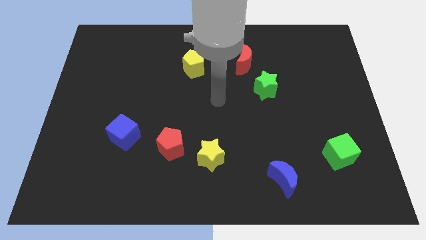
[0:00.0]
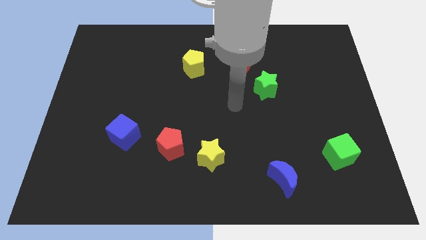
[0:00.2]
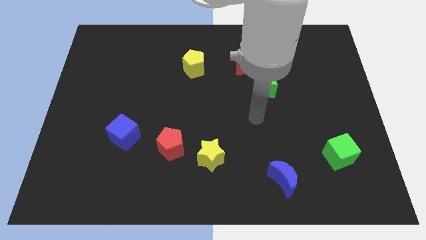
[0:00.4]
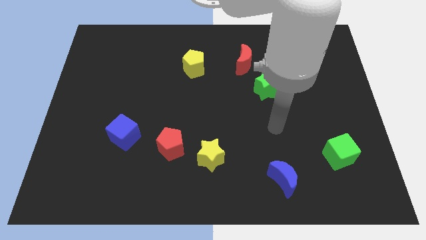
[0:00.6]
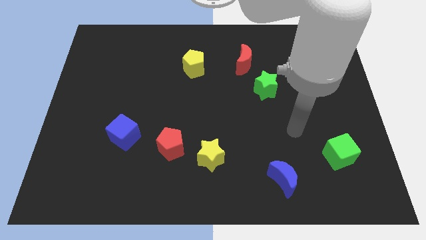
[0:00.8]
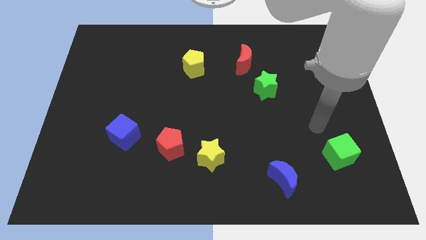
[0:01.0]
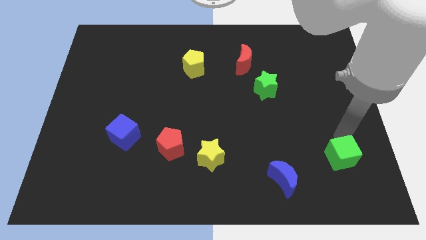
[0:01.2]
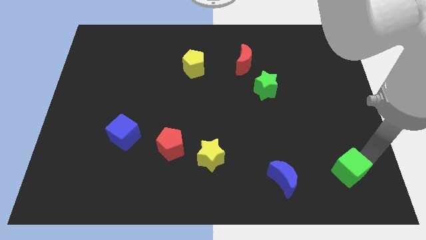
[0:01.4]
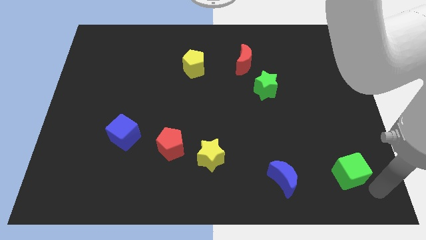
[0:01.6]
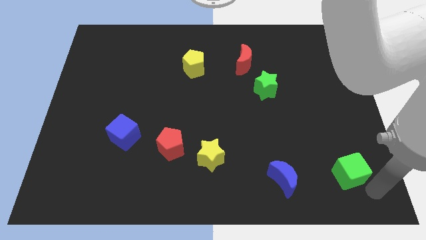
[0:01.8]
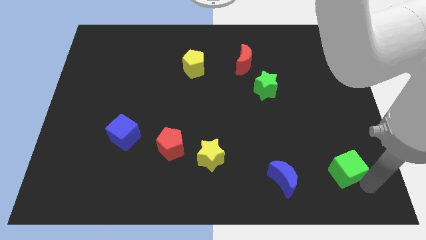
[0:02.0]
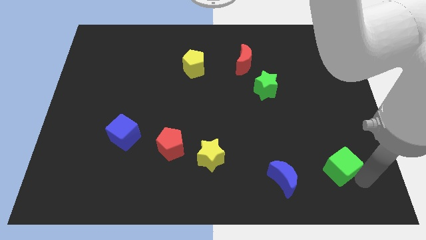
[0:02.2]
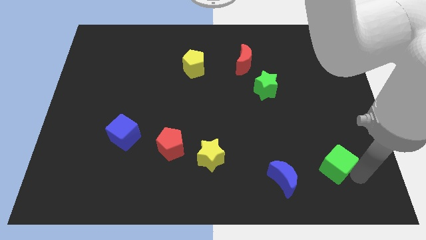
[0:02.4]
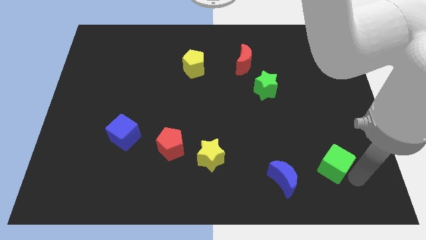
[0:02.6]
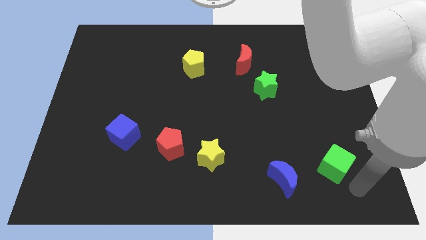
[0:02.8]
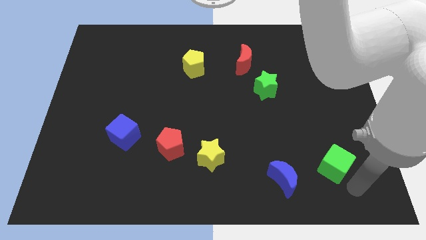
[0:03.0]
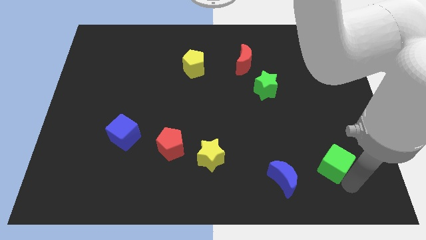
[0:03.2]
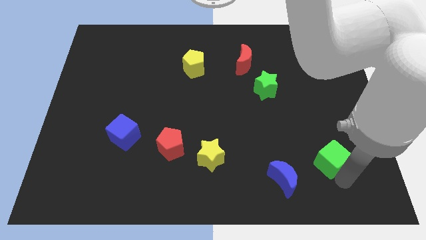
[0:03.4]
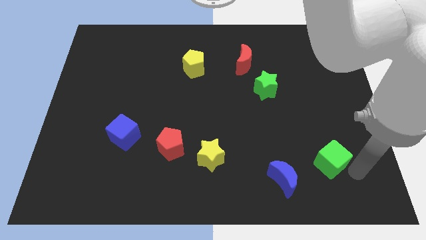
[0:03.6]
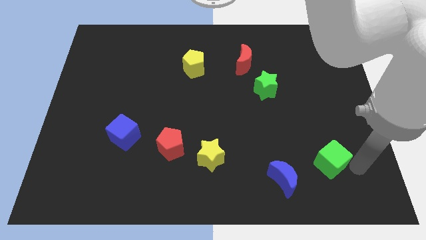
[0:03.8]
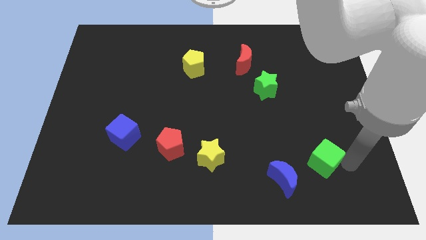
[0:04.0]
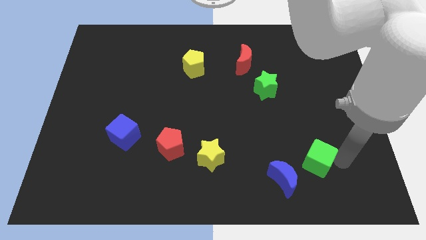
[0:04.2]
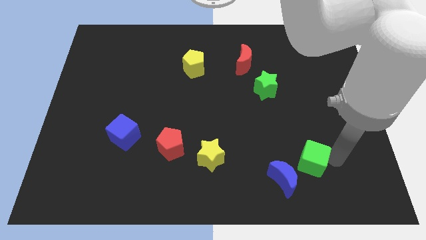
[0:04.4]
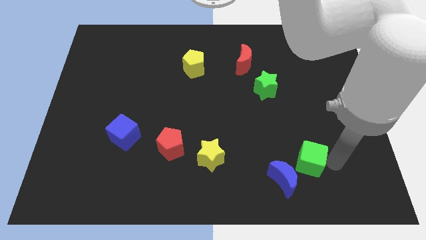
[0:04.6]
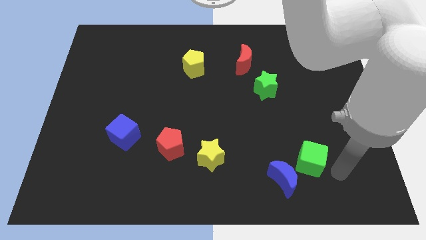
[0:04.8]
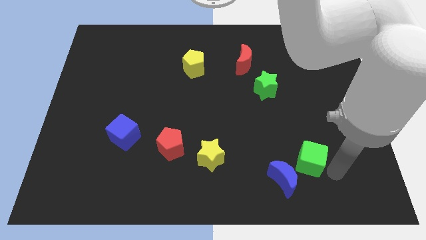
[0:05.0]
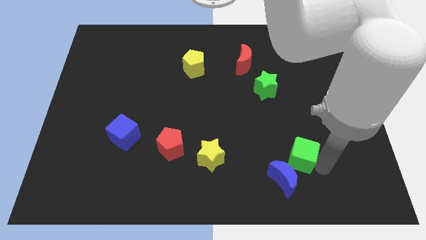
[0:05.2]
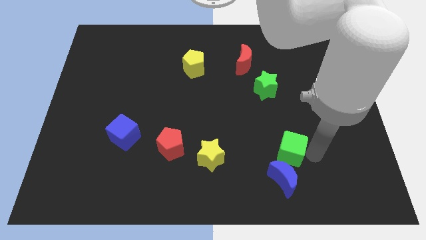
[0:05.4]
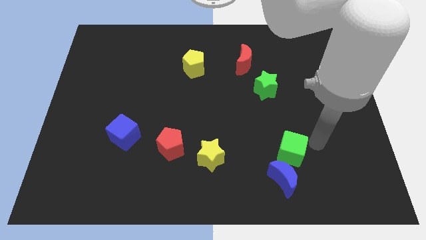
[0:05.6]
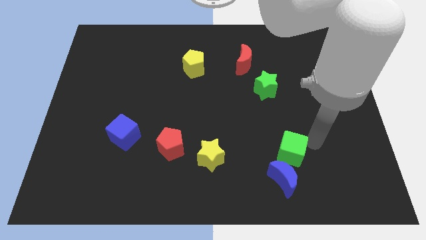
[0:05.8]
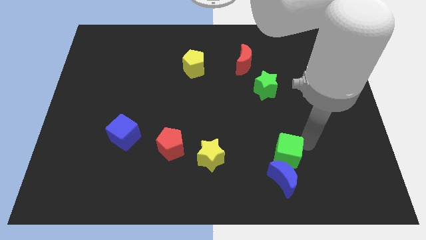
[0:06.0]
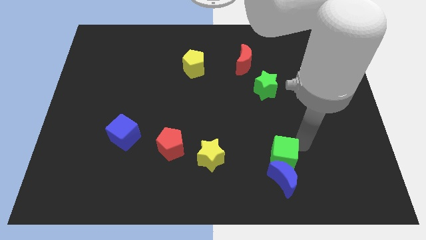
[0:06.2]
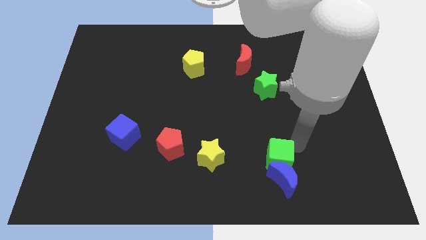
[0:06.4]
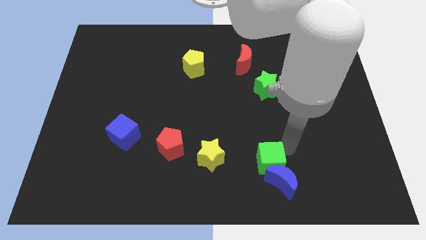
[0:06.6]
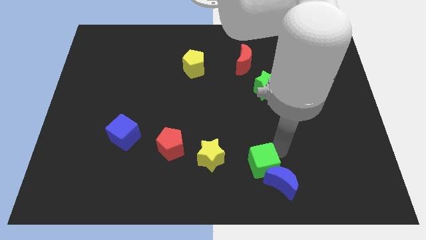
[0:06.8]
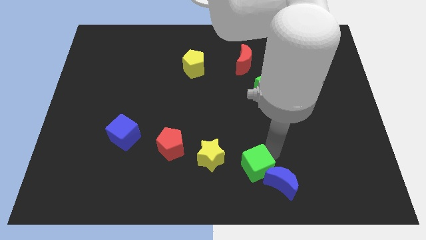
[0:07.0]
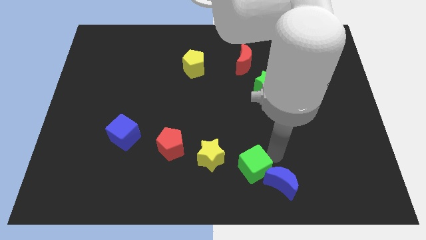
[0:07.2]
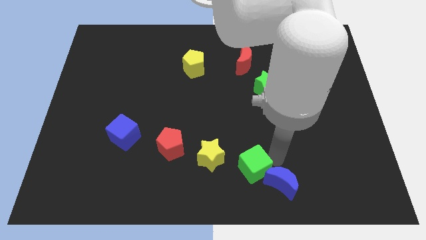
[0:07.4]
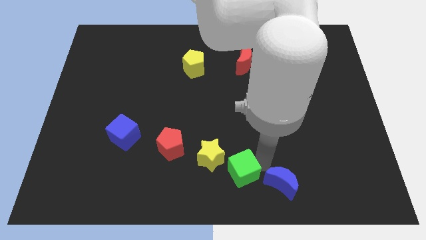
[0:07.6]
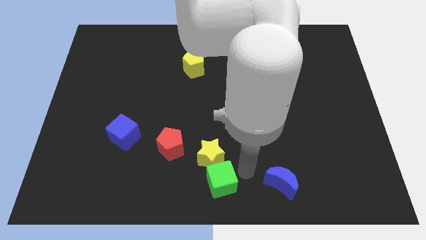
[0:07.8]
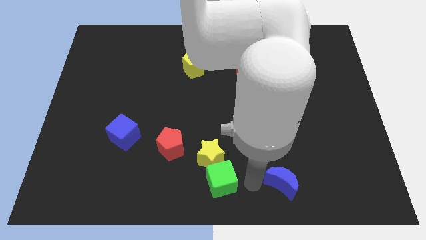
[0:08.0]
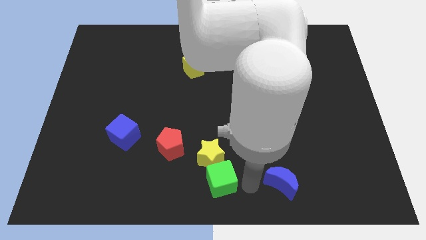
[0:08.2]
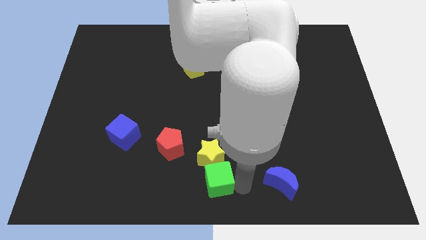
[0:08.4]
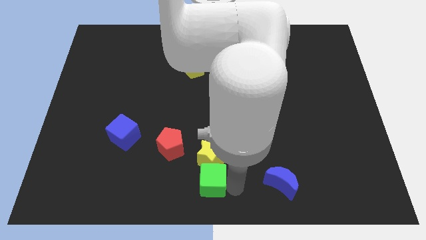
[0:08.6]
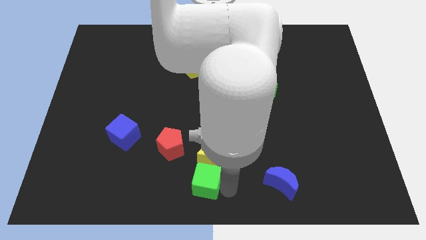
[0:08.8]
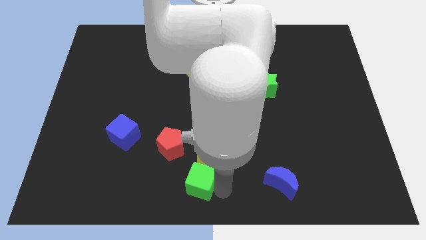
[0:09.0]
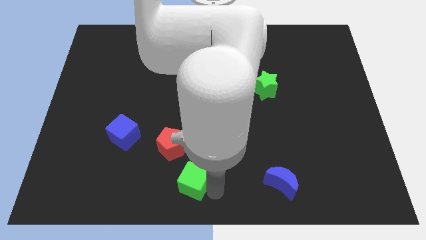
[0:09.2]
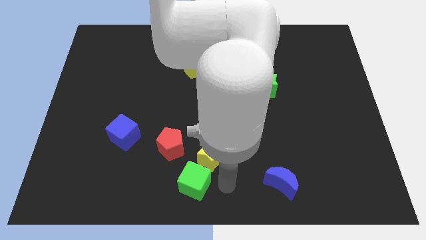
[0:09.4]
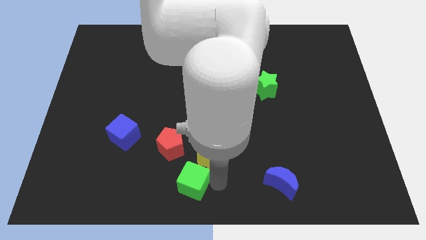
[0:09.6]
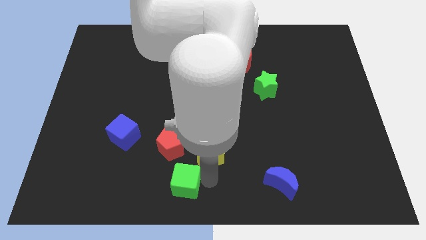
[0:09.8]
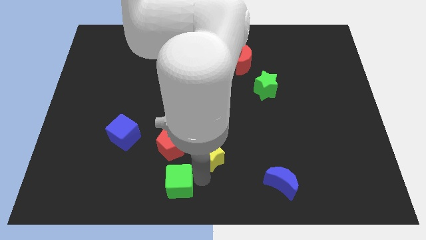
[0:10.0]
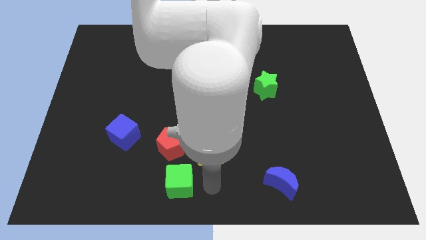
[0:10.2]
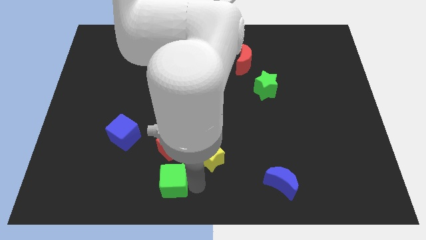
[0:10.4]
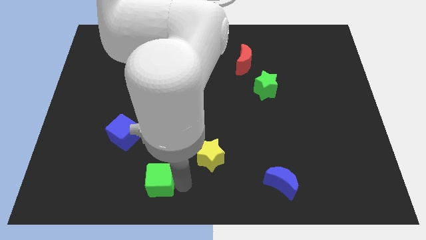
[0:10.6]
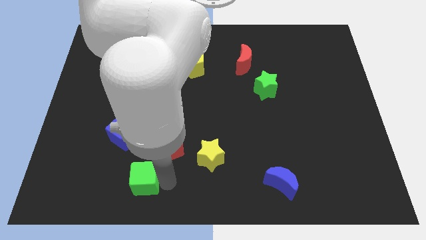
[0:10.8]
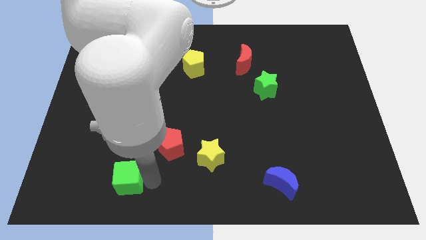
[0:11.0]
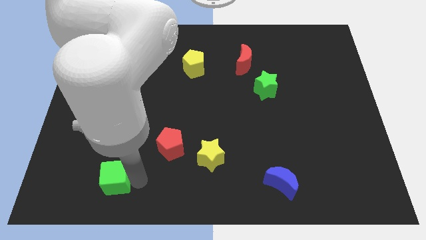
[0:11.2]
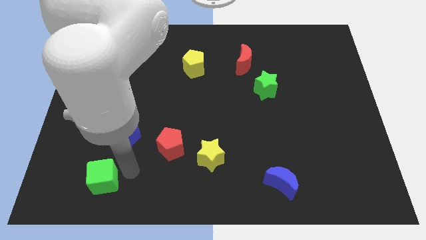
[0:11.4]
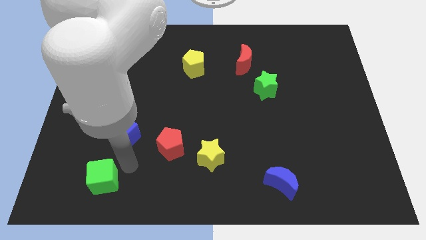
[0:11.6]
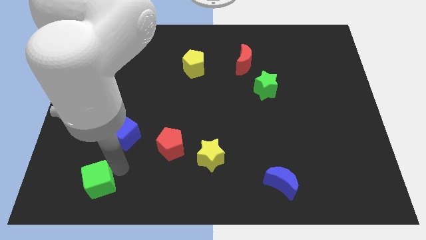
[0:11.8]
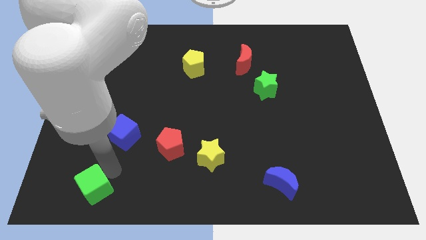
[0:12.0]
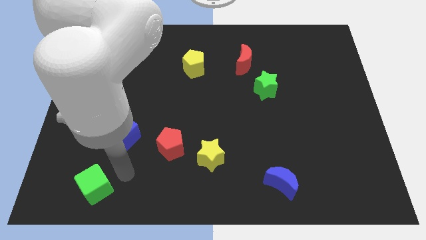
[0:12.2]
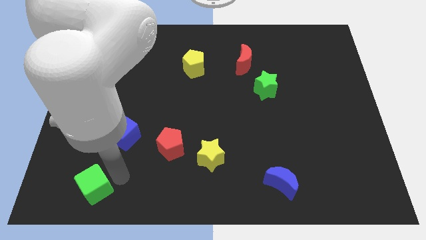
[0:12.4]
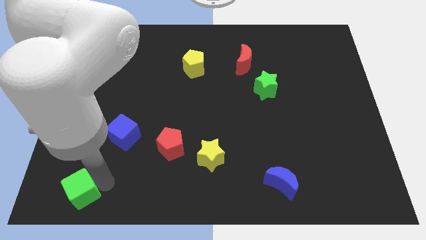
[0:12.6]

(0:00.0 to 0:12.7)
put the green cube to the bottom left of the board
